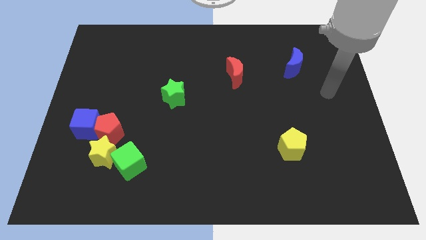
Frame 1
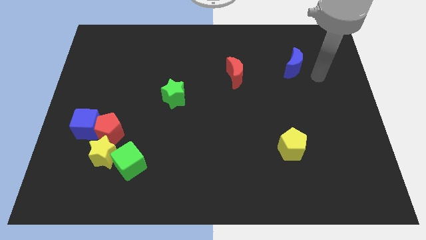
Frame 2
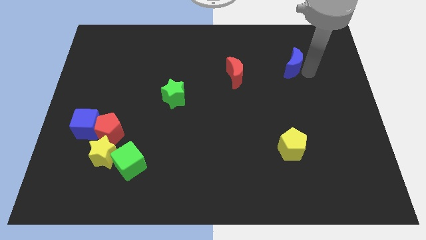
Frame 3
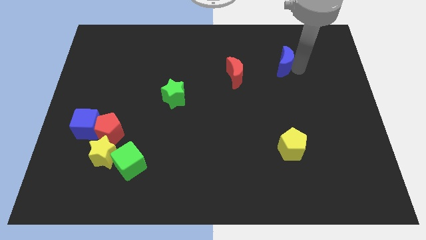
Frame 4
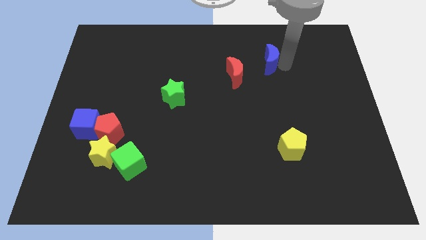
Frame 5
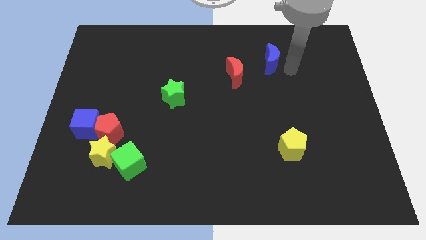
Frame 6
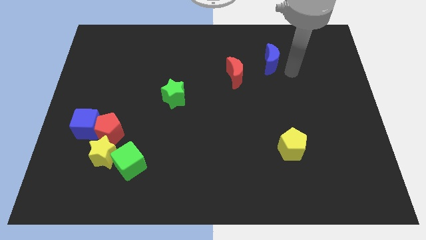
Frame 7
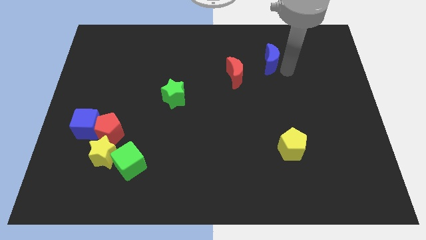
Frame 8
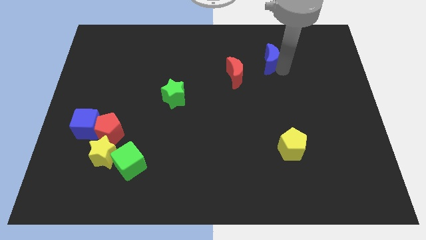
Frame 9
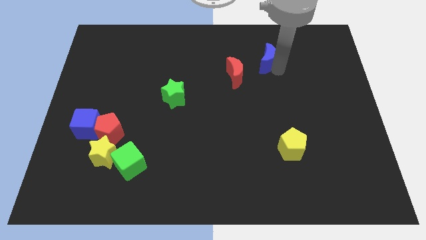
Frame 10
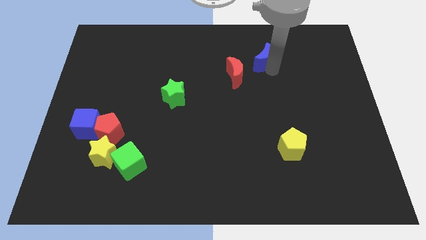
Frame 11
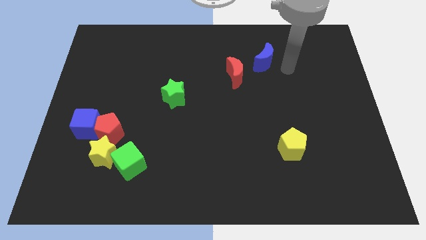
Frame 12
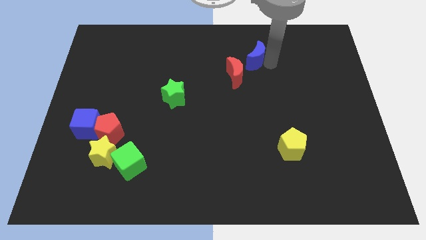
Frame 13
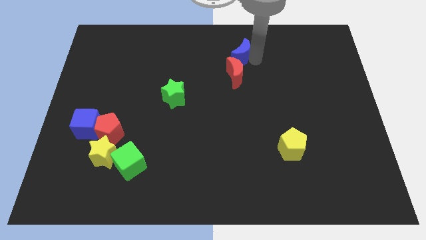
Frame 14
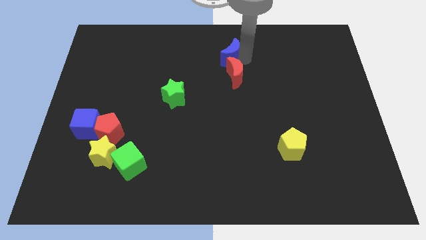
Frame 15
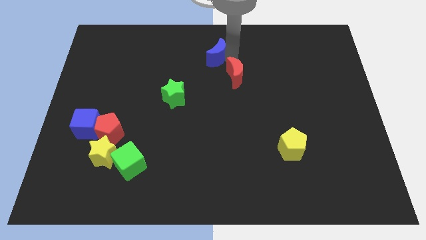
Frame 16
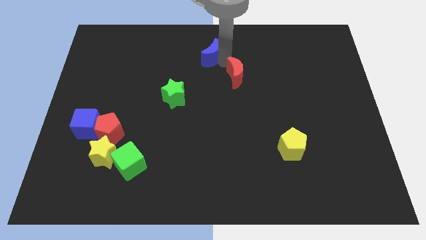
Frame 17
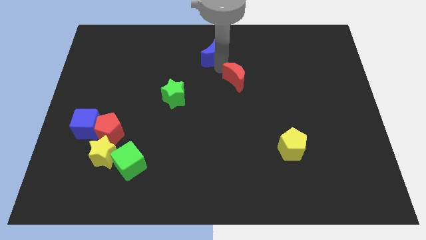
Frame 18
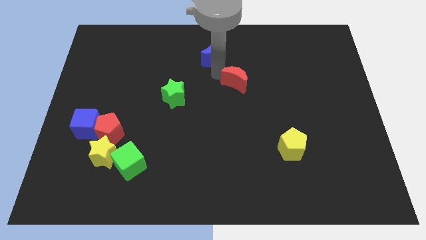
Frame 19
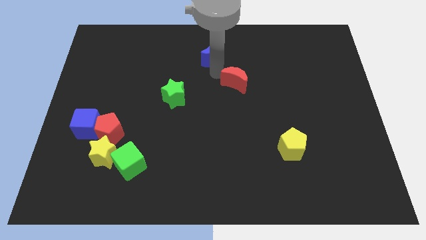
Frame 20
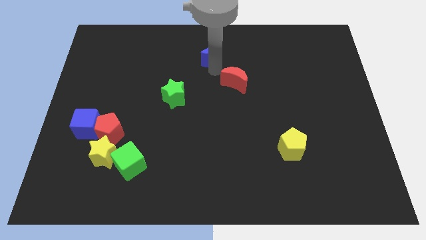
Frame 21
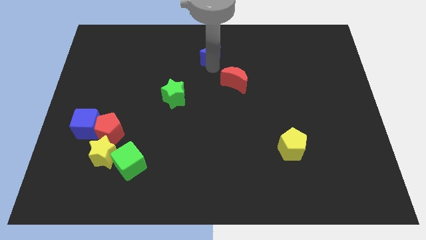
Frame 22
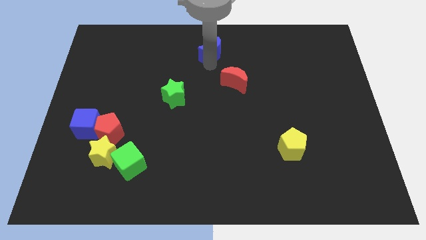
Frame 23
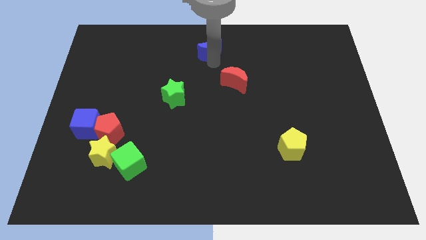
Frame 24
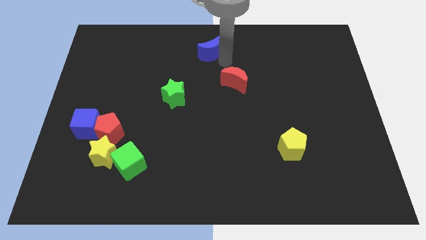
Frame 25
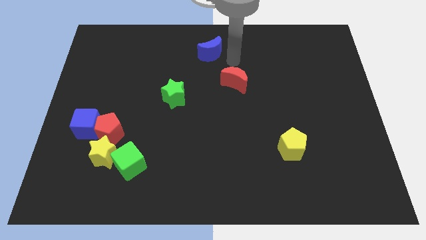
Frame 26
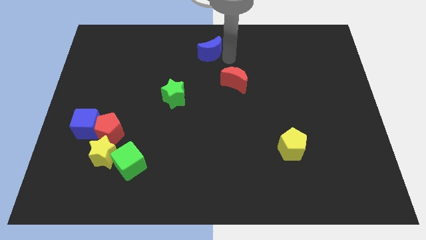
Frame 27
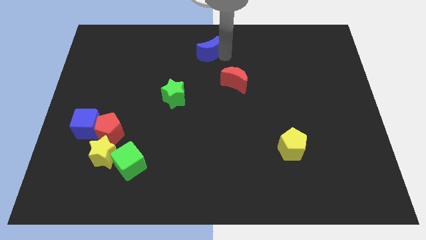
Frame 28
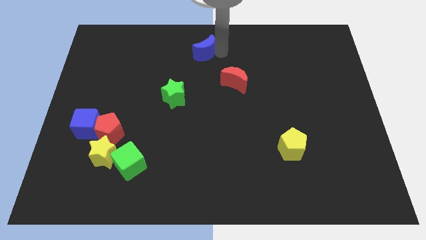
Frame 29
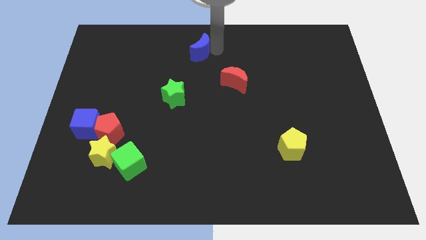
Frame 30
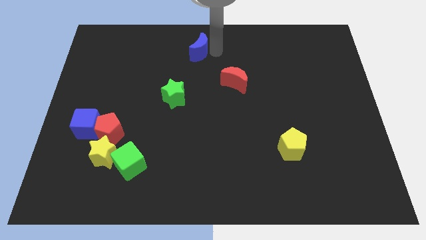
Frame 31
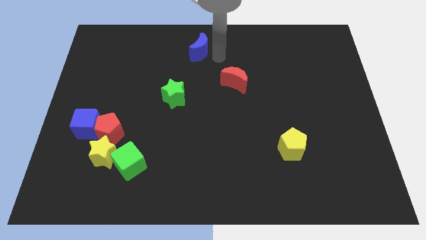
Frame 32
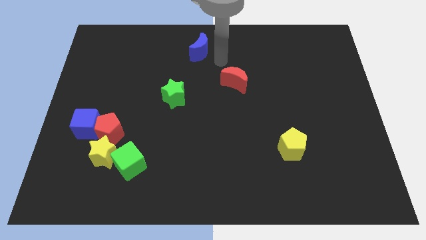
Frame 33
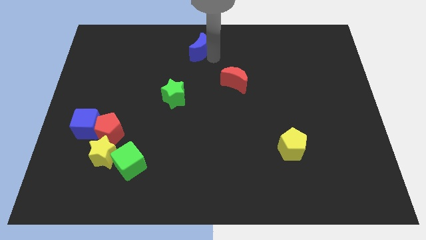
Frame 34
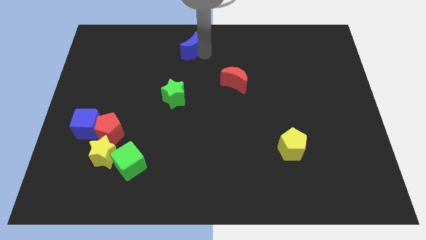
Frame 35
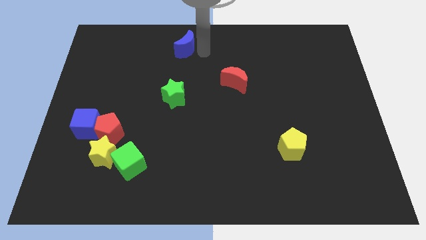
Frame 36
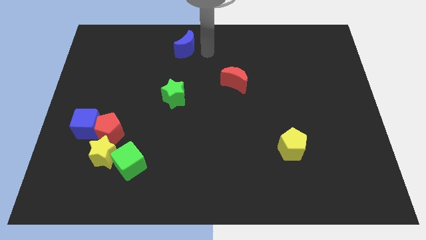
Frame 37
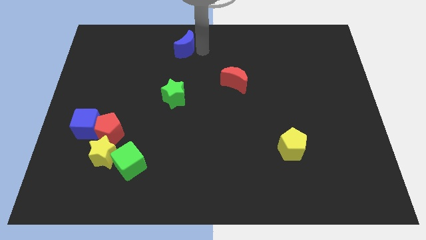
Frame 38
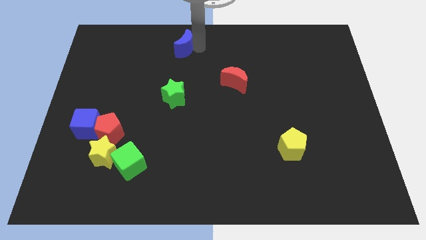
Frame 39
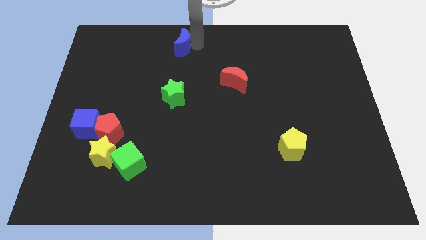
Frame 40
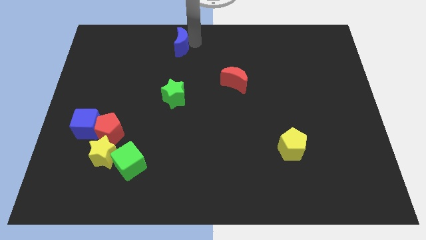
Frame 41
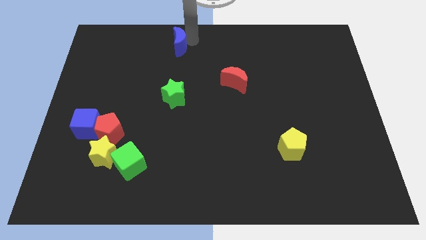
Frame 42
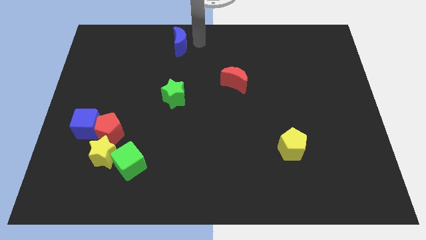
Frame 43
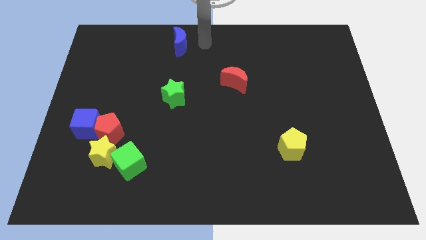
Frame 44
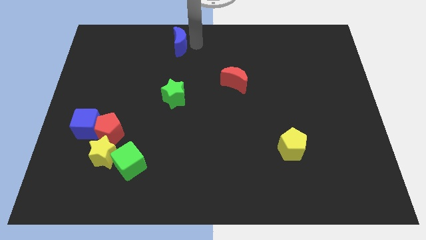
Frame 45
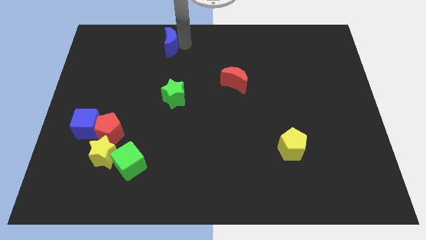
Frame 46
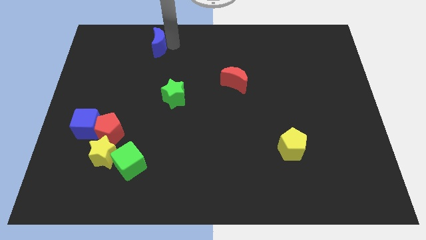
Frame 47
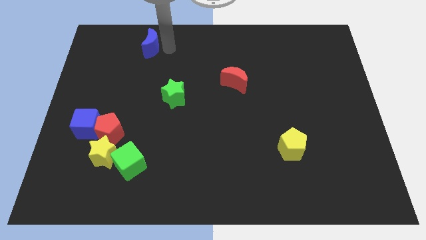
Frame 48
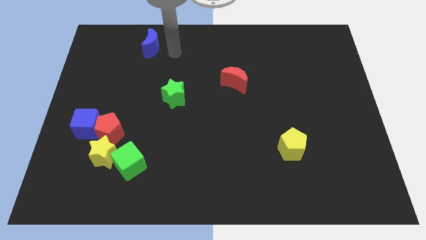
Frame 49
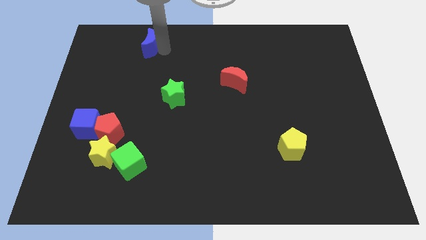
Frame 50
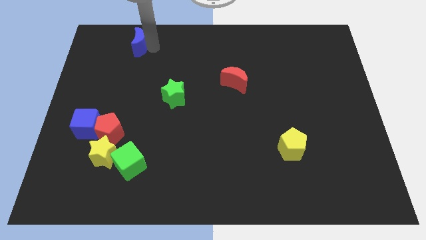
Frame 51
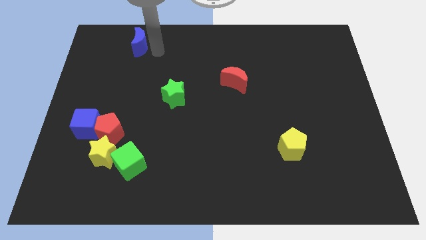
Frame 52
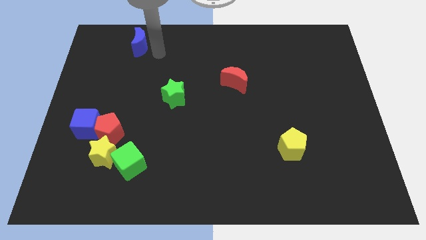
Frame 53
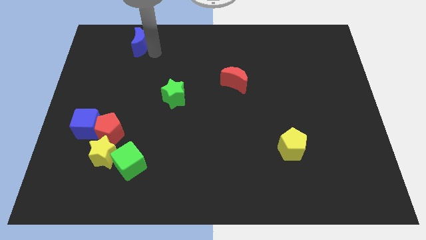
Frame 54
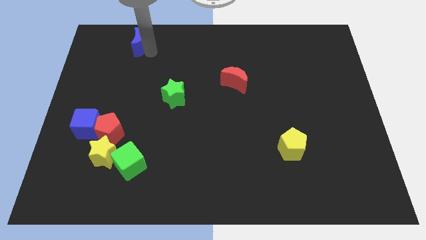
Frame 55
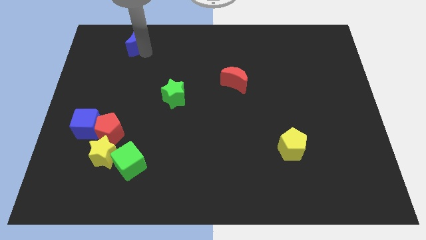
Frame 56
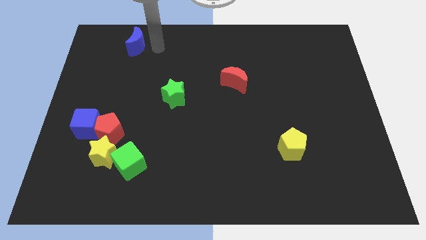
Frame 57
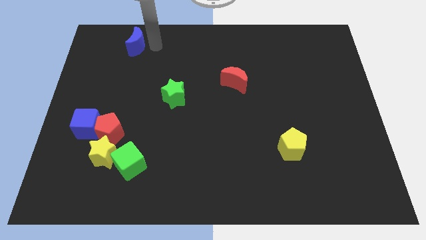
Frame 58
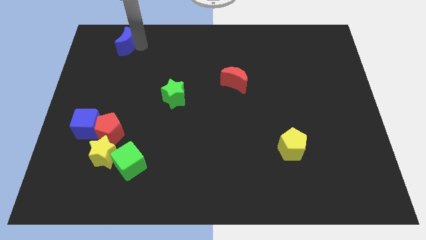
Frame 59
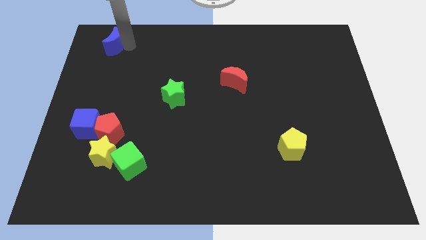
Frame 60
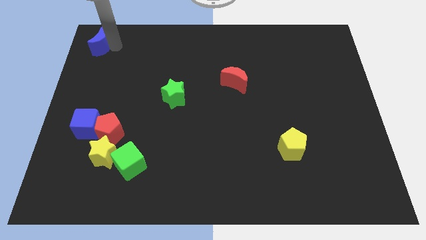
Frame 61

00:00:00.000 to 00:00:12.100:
put the blue moon to the top left corner

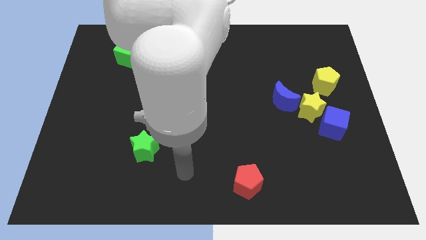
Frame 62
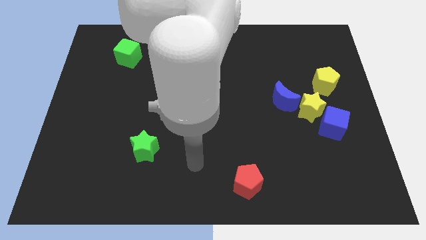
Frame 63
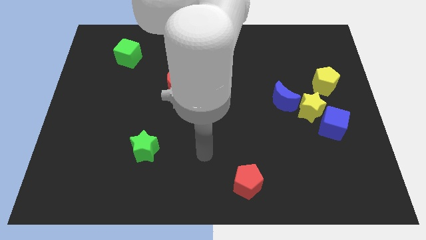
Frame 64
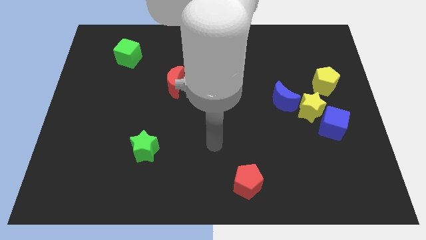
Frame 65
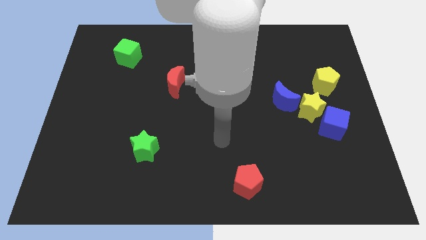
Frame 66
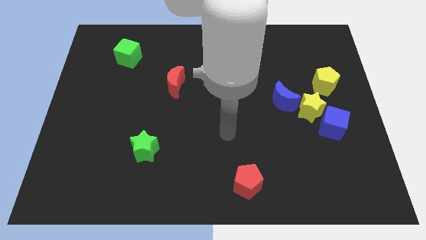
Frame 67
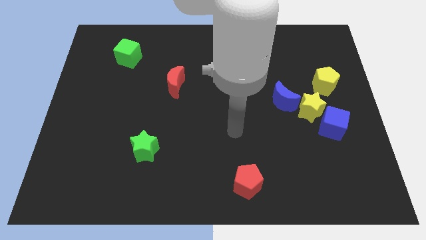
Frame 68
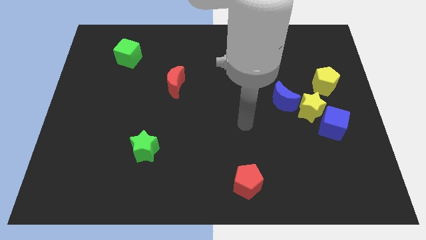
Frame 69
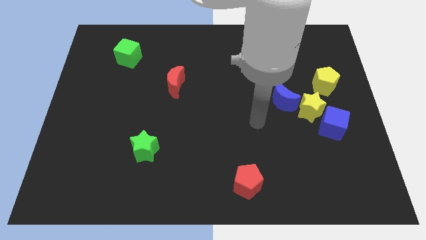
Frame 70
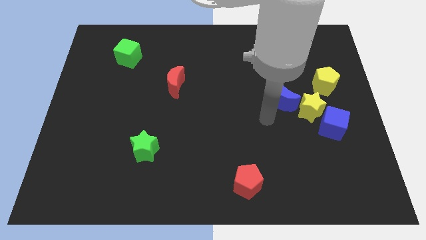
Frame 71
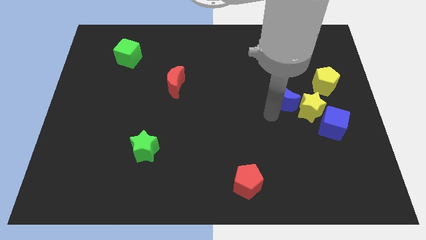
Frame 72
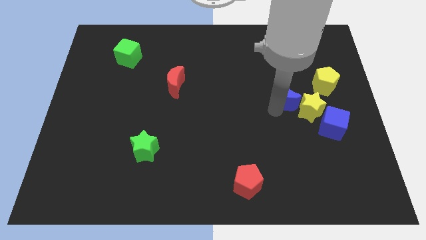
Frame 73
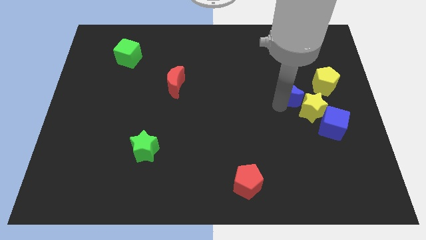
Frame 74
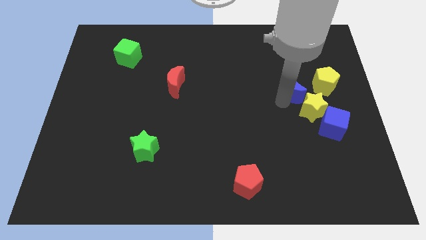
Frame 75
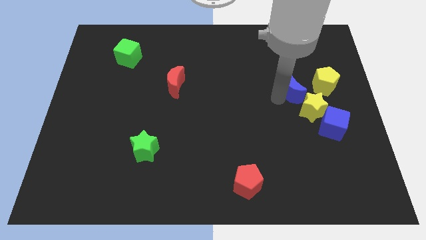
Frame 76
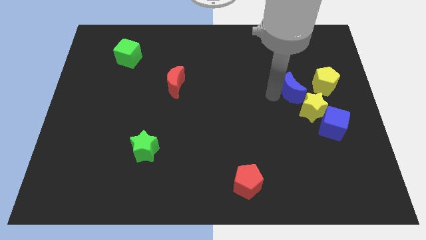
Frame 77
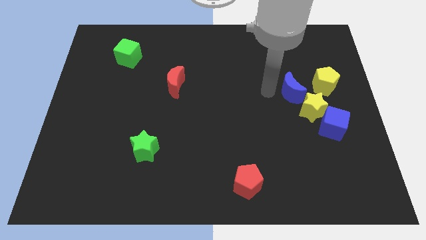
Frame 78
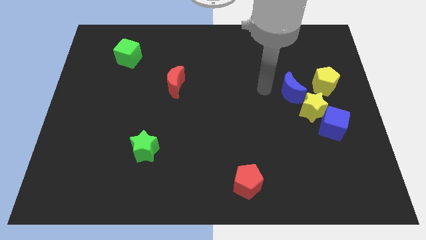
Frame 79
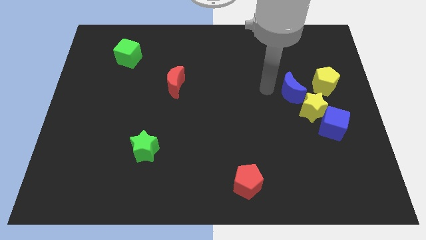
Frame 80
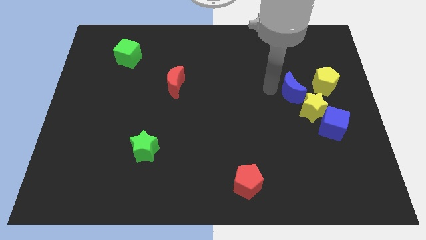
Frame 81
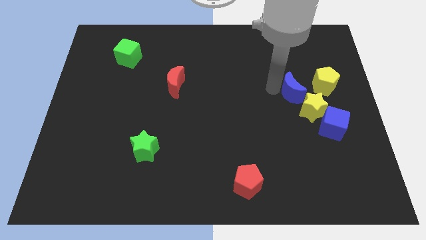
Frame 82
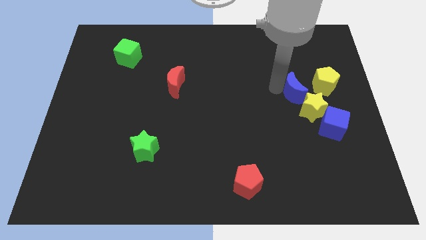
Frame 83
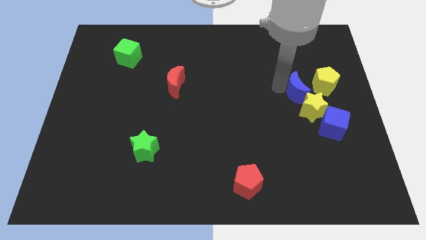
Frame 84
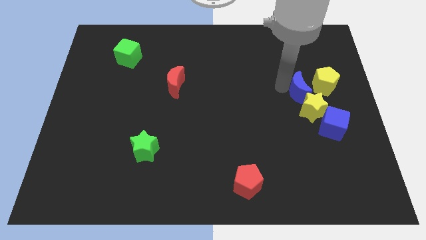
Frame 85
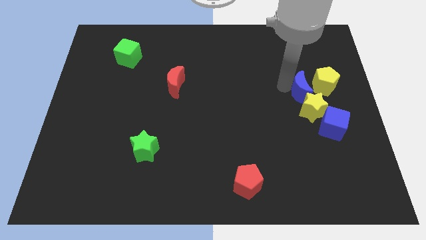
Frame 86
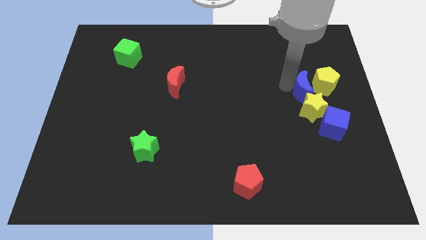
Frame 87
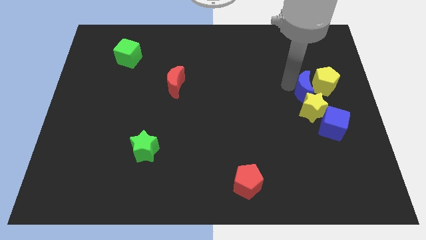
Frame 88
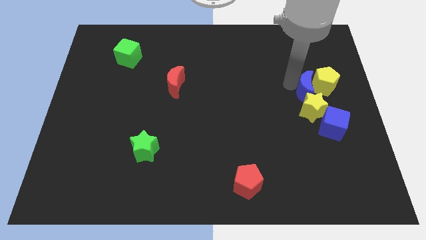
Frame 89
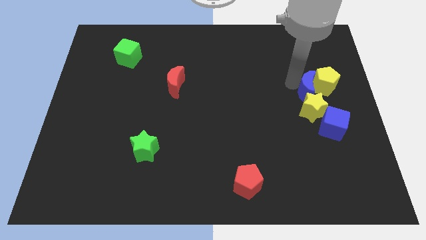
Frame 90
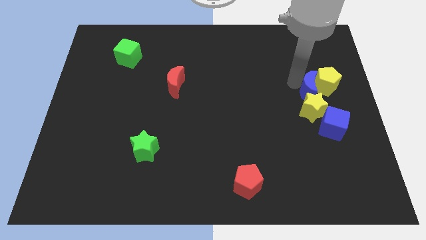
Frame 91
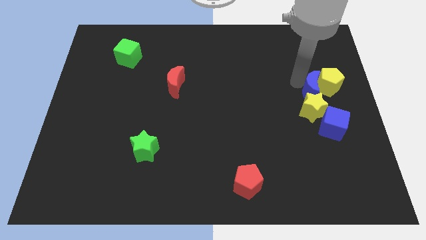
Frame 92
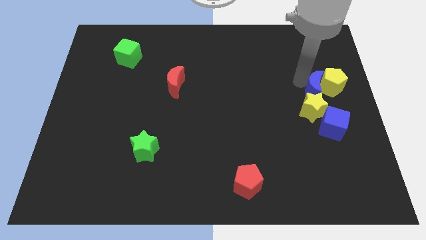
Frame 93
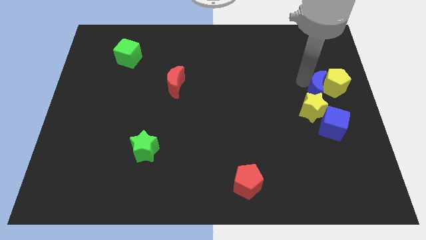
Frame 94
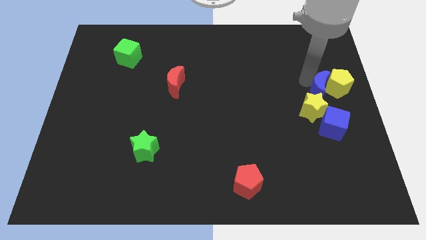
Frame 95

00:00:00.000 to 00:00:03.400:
push the blue moon to the right side of the board
